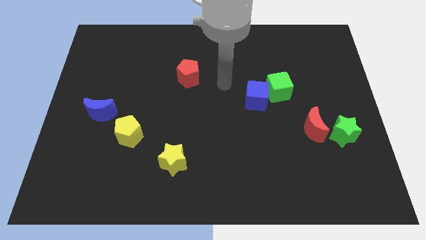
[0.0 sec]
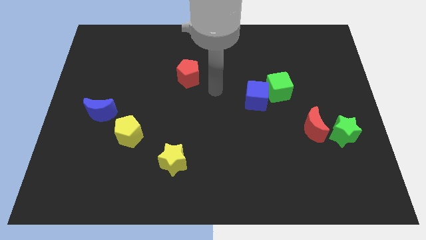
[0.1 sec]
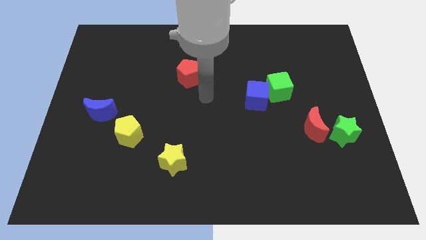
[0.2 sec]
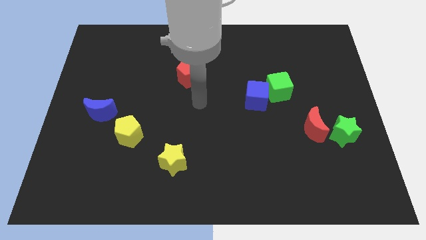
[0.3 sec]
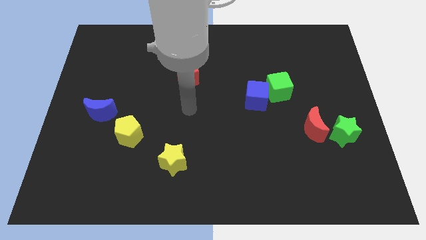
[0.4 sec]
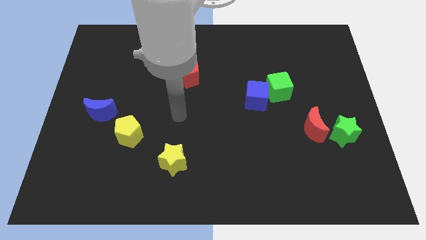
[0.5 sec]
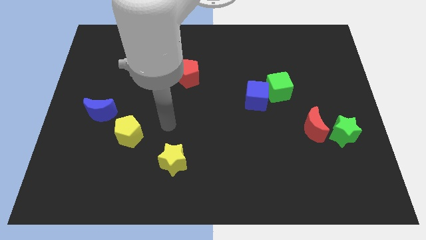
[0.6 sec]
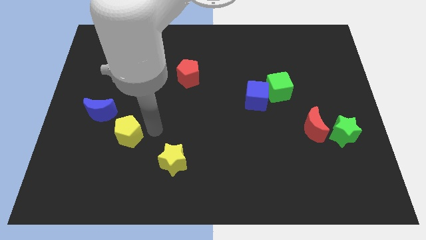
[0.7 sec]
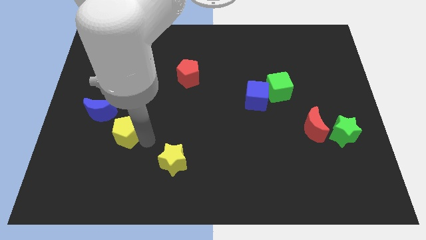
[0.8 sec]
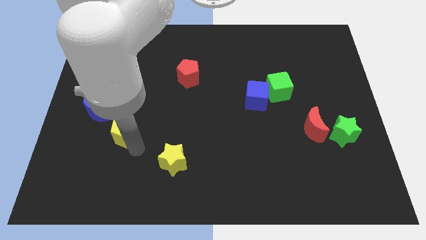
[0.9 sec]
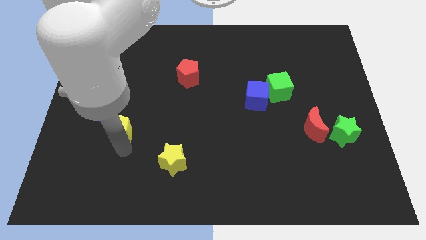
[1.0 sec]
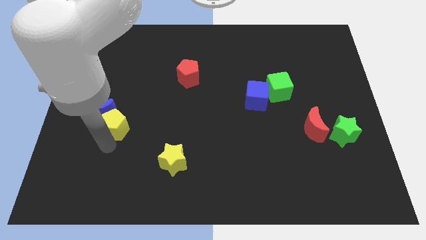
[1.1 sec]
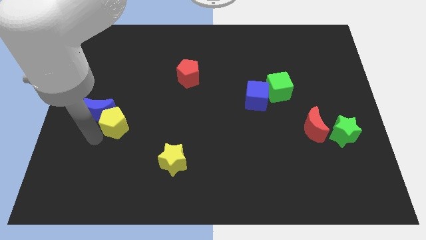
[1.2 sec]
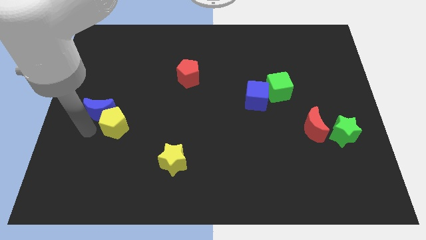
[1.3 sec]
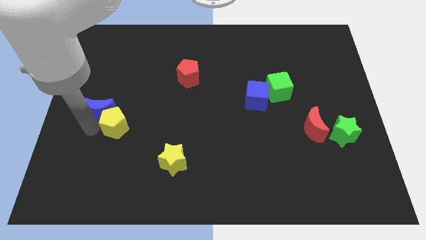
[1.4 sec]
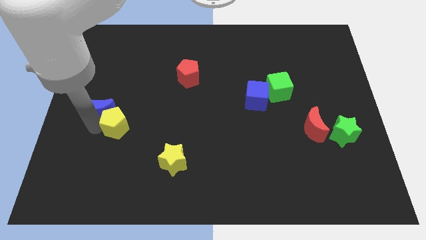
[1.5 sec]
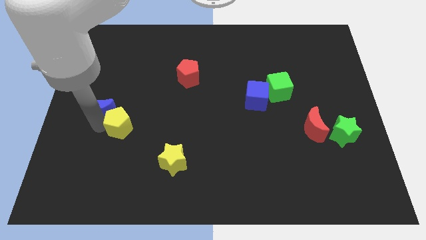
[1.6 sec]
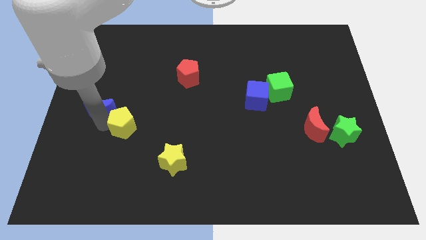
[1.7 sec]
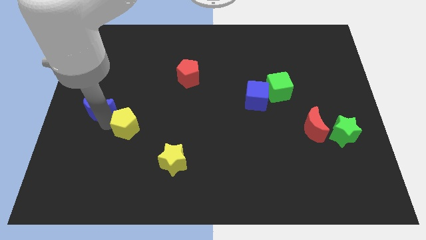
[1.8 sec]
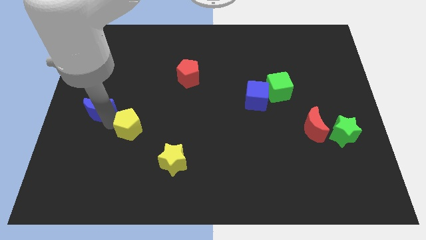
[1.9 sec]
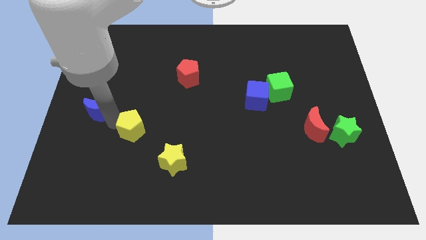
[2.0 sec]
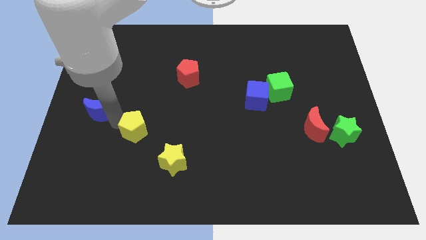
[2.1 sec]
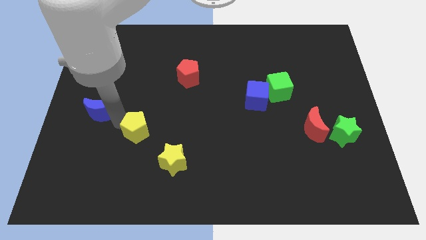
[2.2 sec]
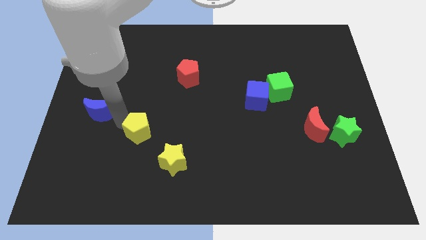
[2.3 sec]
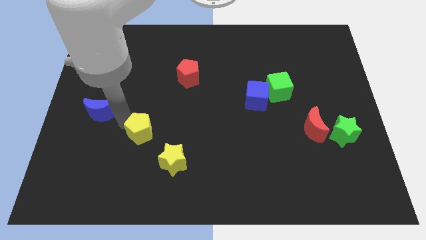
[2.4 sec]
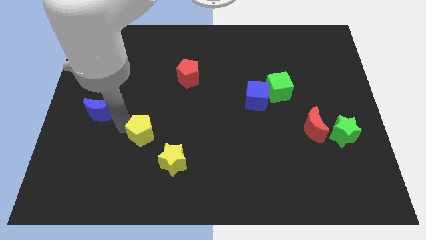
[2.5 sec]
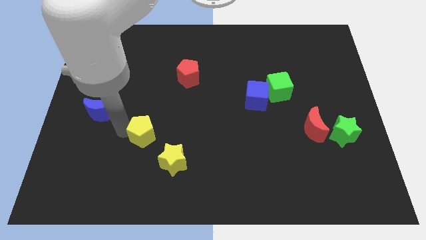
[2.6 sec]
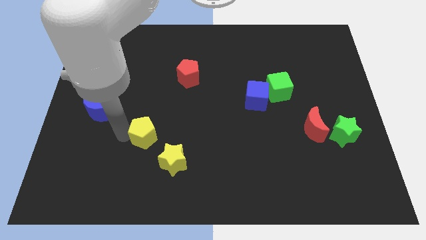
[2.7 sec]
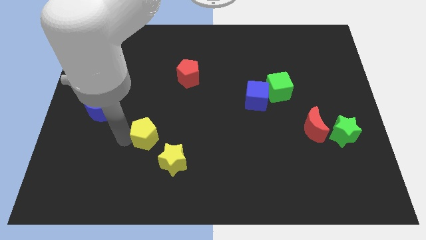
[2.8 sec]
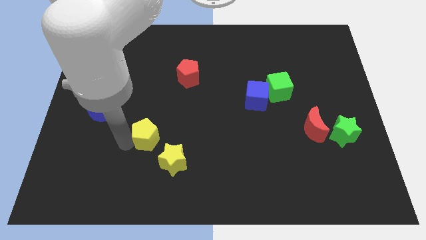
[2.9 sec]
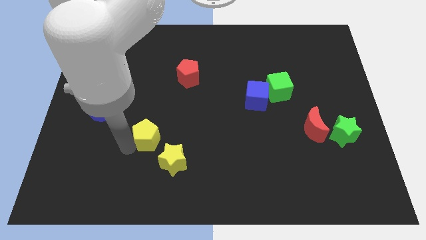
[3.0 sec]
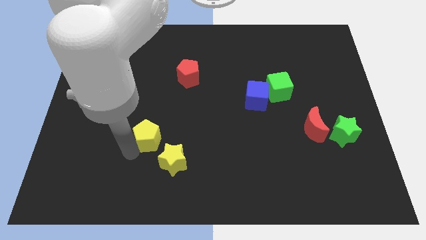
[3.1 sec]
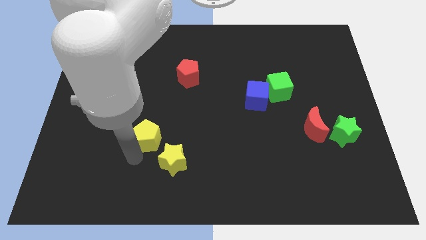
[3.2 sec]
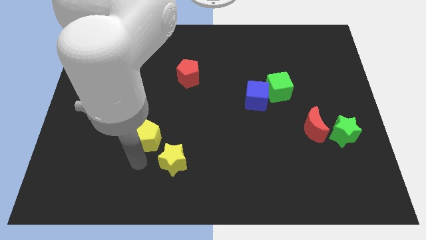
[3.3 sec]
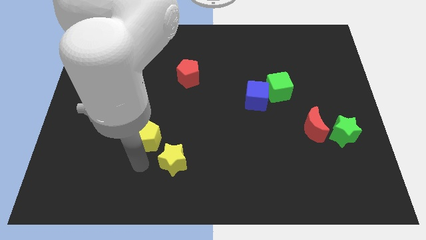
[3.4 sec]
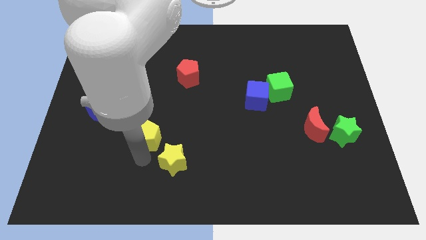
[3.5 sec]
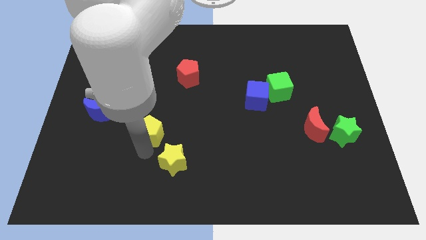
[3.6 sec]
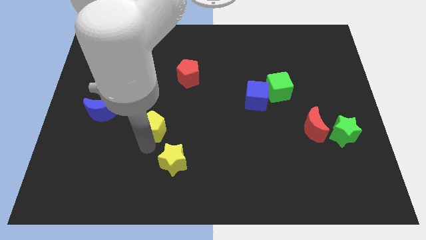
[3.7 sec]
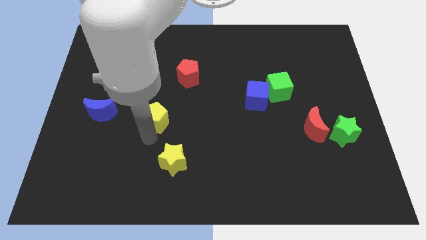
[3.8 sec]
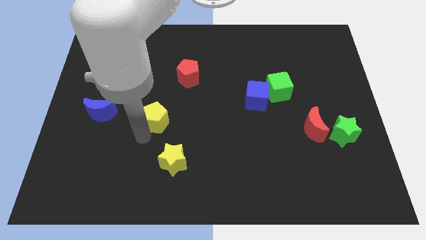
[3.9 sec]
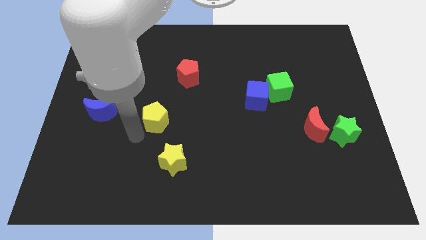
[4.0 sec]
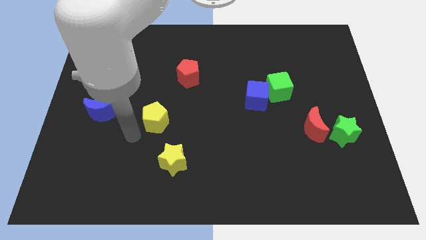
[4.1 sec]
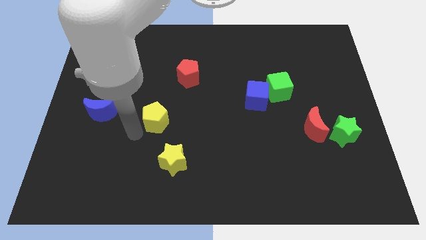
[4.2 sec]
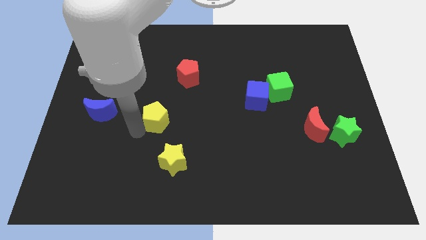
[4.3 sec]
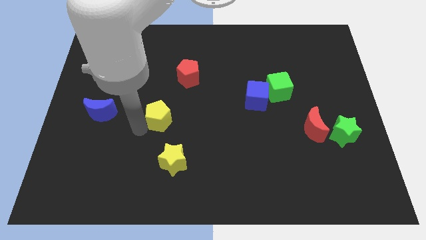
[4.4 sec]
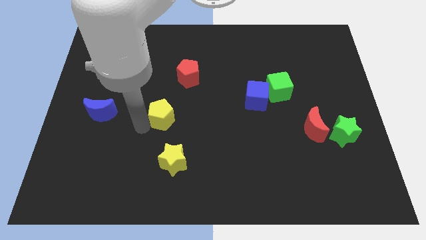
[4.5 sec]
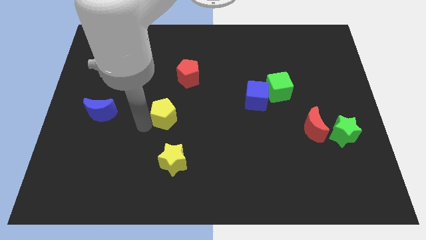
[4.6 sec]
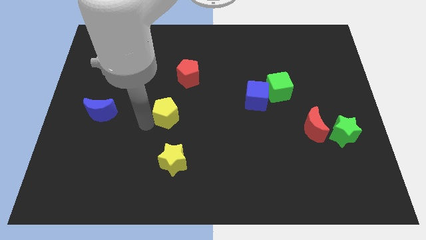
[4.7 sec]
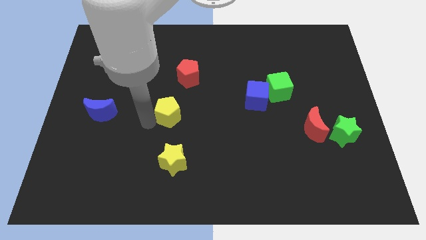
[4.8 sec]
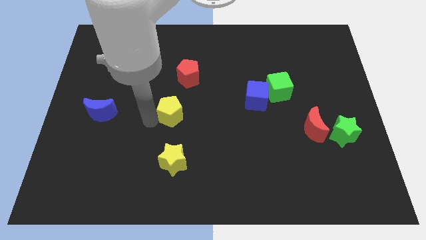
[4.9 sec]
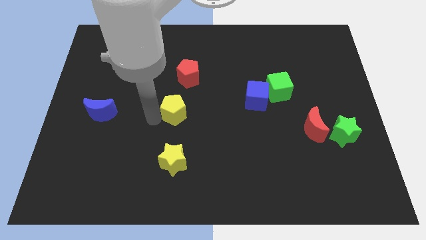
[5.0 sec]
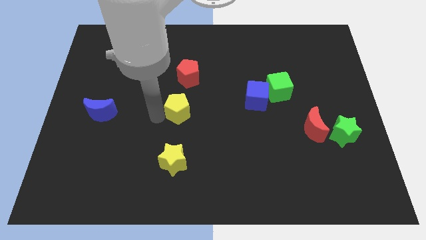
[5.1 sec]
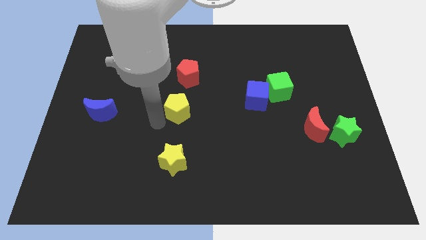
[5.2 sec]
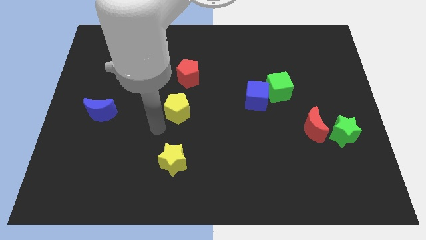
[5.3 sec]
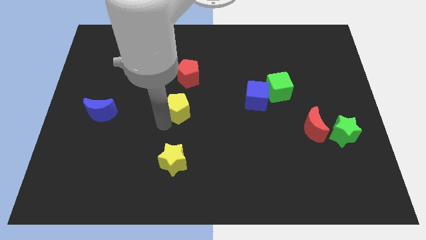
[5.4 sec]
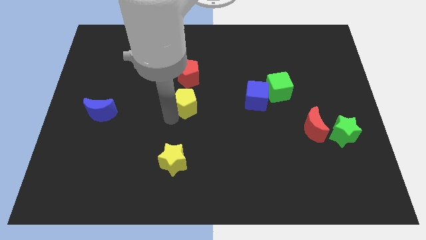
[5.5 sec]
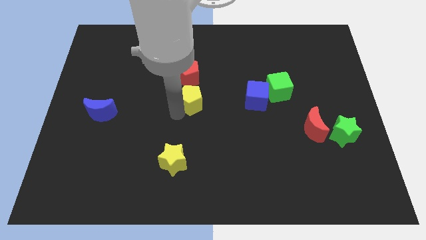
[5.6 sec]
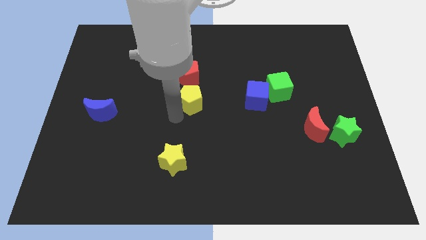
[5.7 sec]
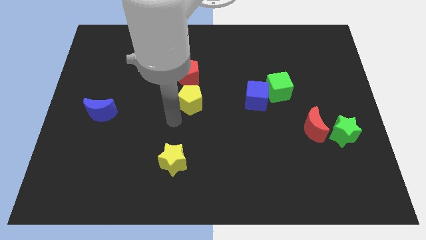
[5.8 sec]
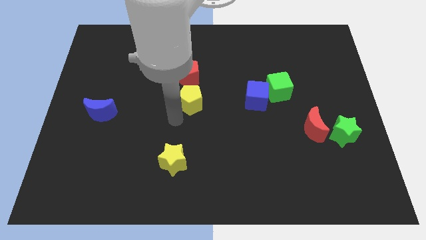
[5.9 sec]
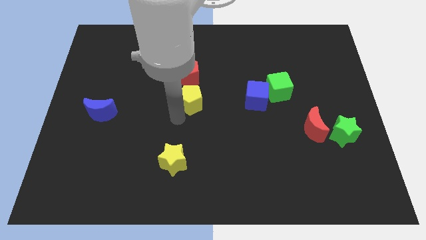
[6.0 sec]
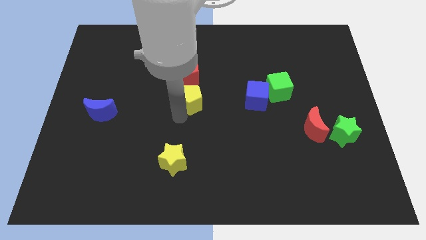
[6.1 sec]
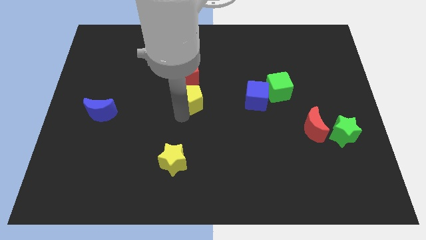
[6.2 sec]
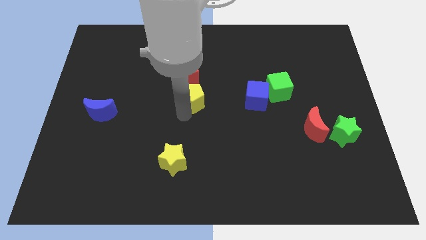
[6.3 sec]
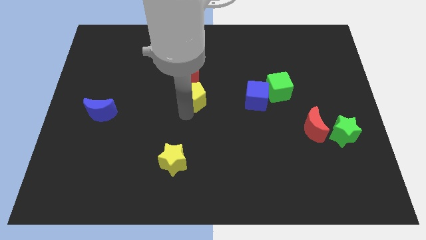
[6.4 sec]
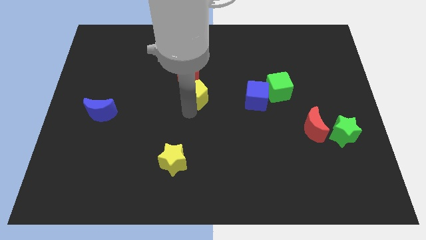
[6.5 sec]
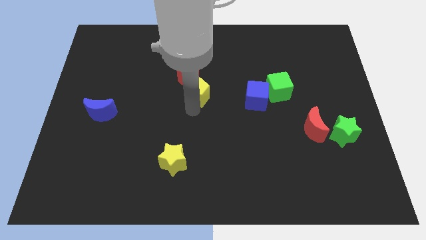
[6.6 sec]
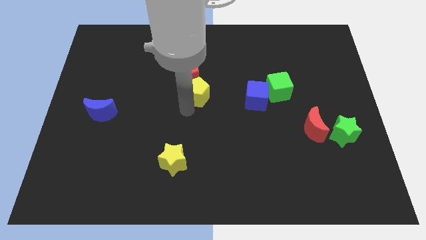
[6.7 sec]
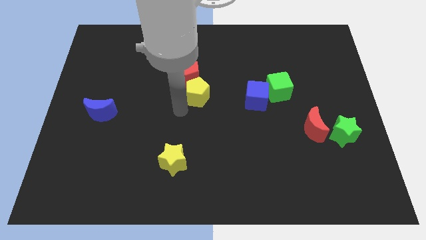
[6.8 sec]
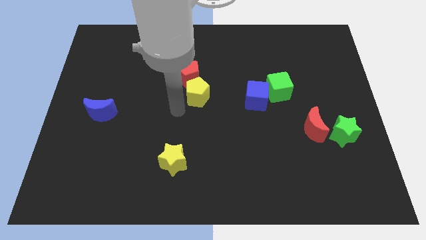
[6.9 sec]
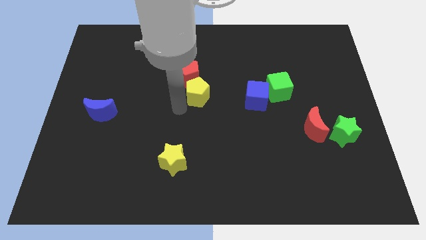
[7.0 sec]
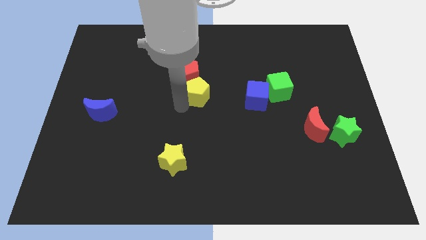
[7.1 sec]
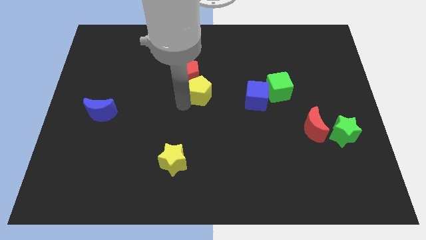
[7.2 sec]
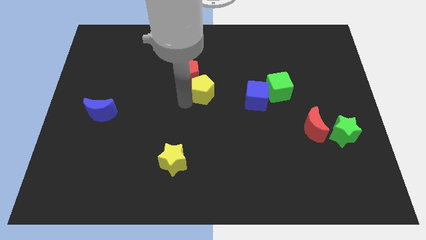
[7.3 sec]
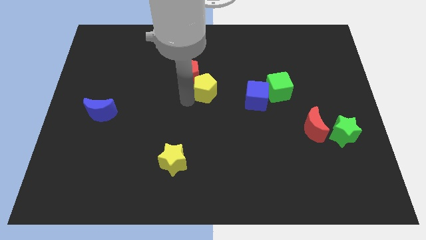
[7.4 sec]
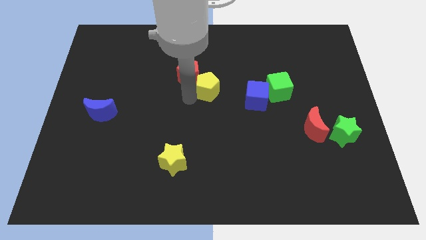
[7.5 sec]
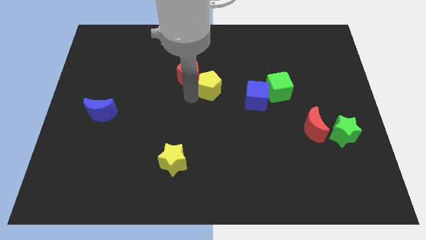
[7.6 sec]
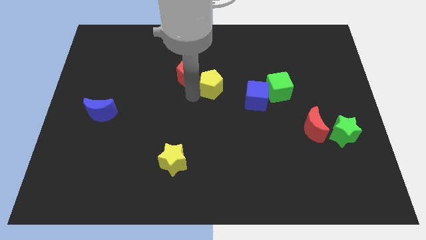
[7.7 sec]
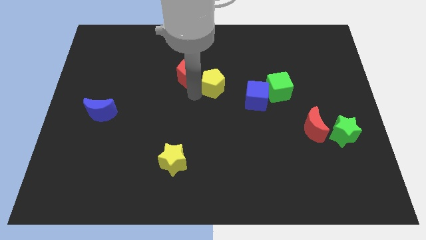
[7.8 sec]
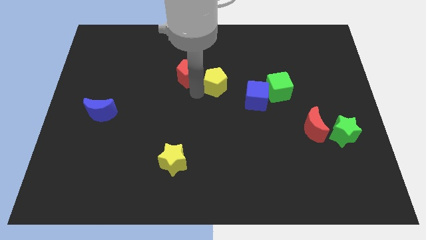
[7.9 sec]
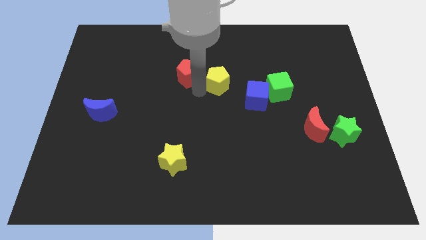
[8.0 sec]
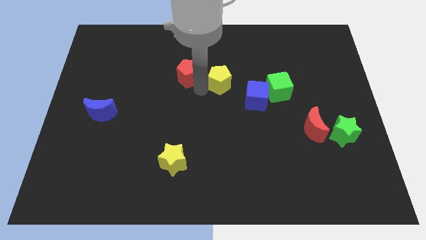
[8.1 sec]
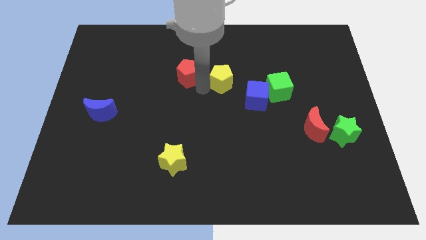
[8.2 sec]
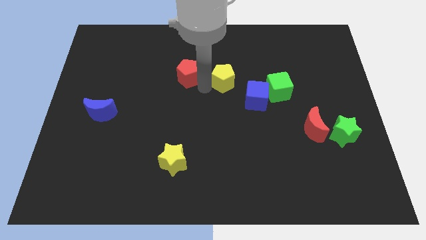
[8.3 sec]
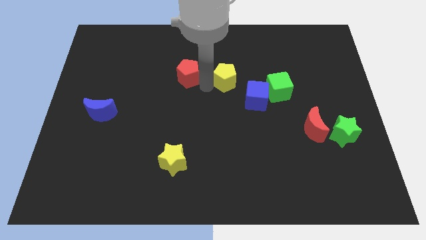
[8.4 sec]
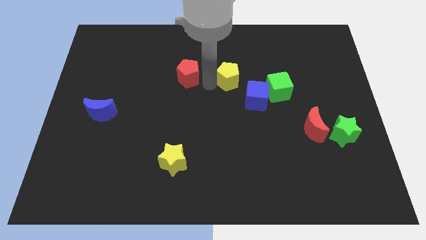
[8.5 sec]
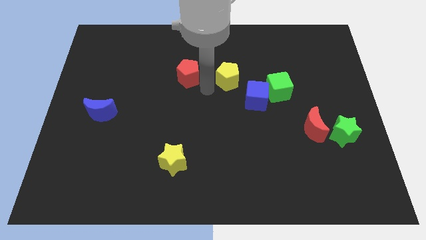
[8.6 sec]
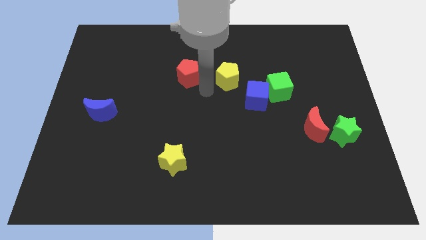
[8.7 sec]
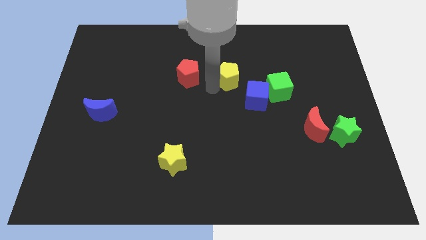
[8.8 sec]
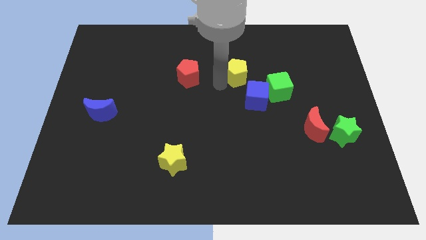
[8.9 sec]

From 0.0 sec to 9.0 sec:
put the yellow pentagon to the top side of the blue cube
